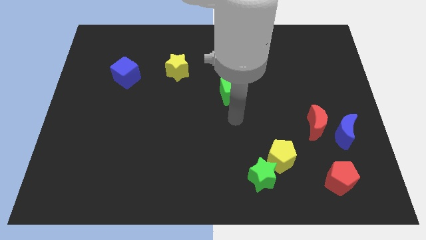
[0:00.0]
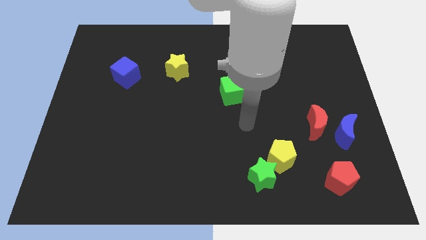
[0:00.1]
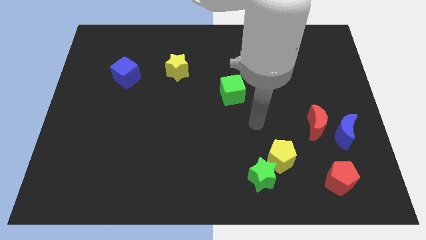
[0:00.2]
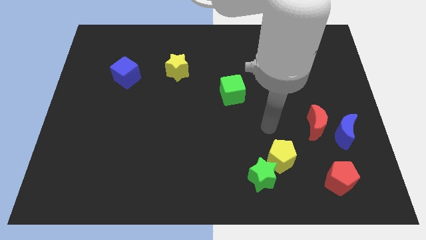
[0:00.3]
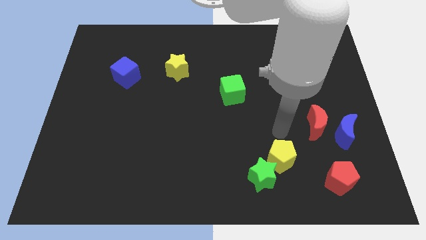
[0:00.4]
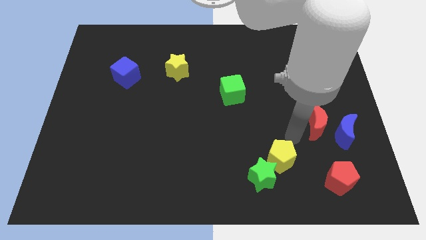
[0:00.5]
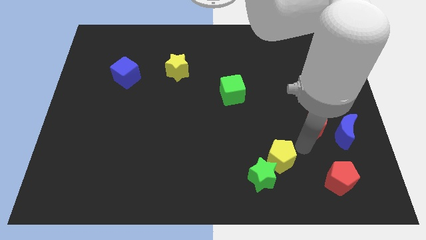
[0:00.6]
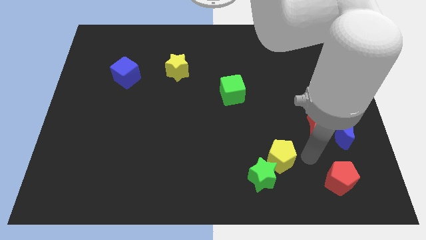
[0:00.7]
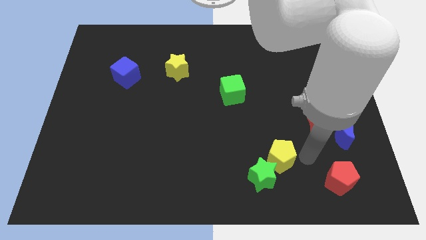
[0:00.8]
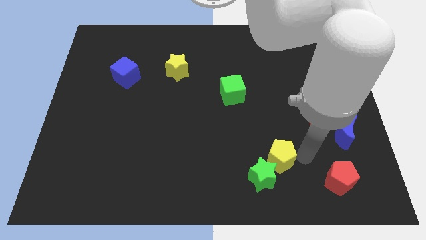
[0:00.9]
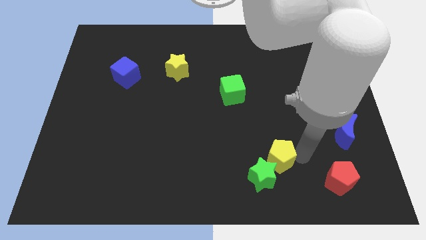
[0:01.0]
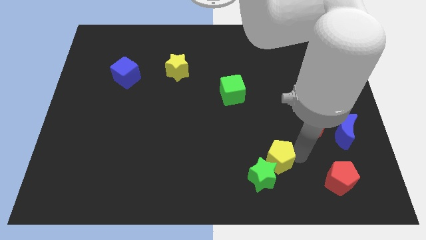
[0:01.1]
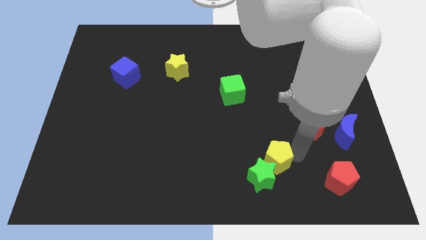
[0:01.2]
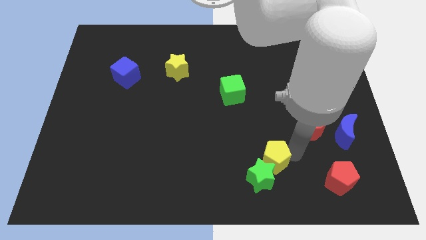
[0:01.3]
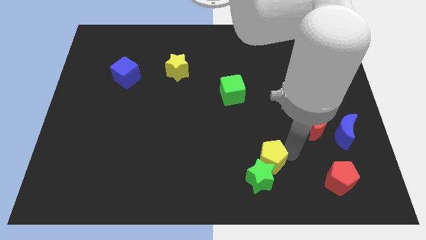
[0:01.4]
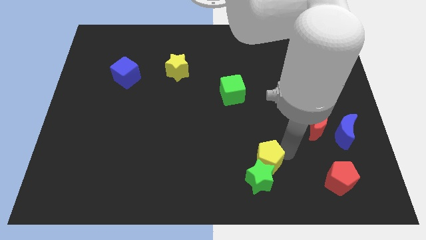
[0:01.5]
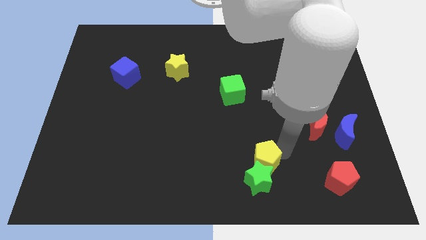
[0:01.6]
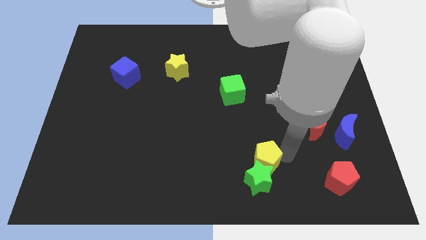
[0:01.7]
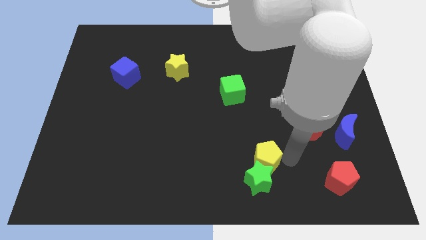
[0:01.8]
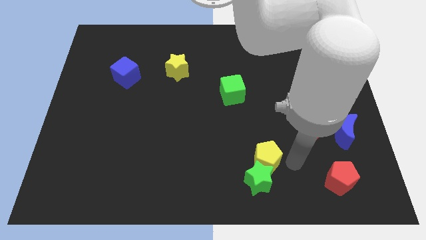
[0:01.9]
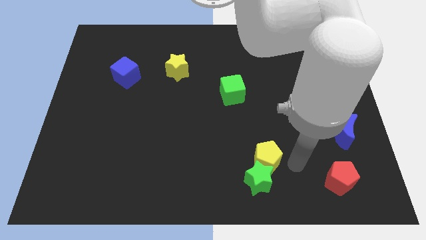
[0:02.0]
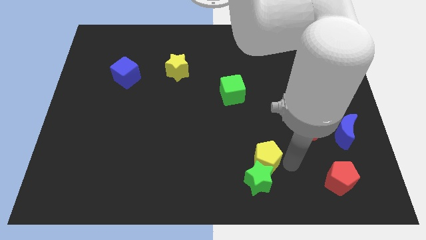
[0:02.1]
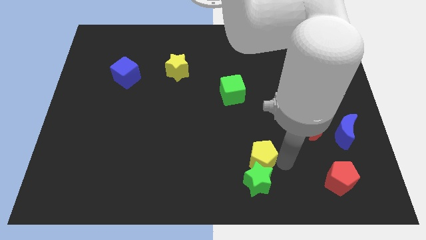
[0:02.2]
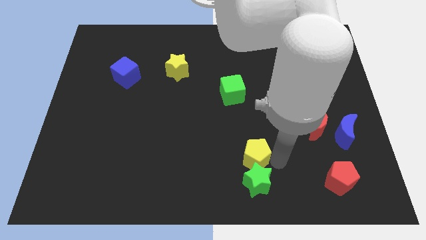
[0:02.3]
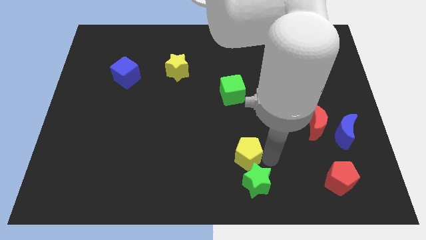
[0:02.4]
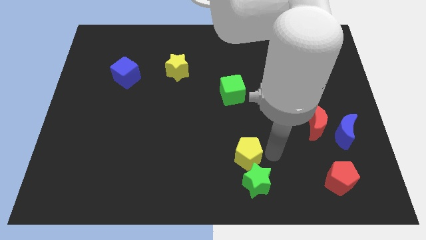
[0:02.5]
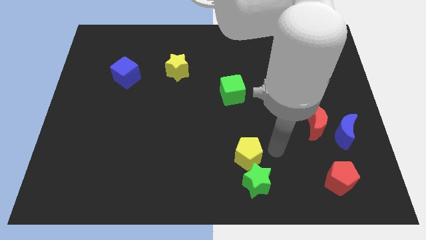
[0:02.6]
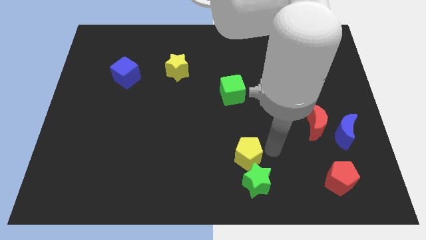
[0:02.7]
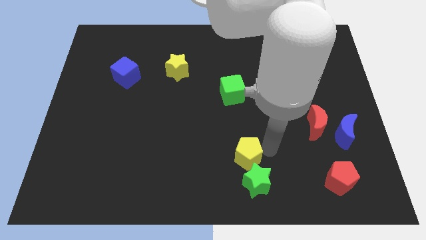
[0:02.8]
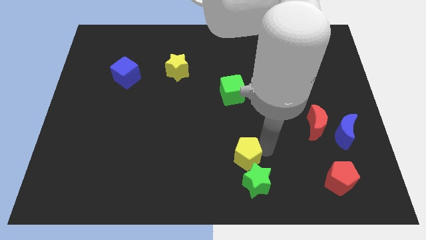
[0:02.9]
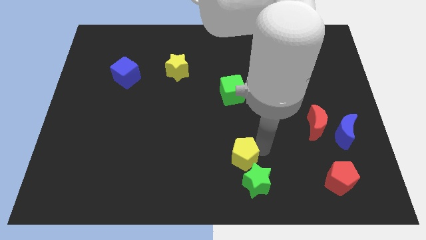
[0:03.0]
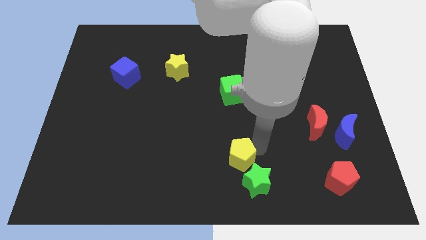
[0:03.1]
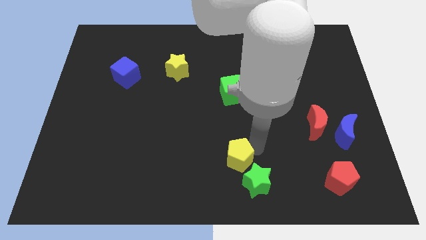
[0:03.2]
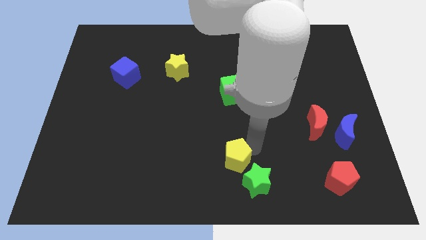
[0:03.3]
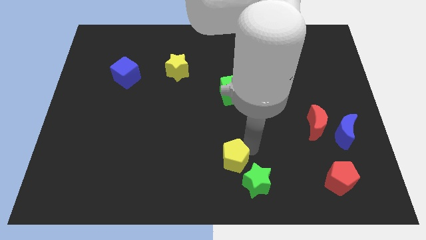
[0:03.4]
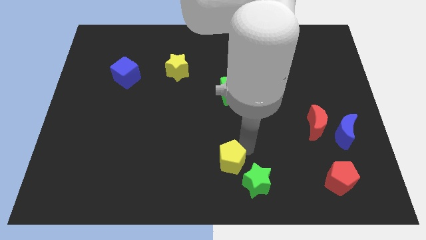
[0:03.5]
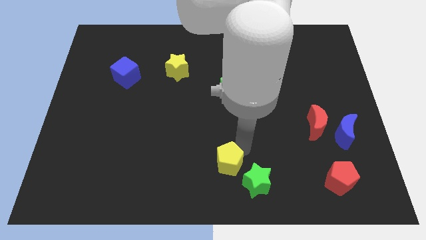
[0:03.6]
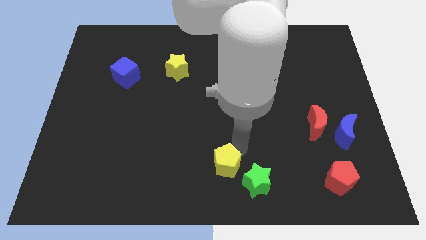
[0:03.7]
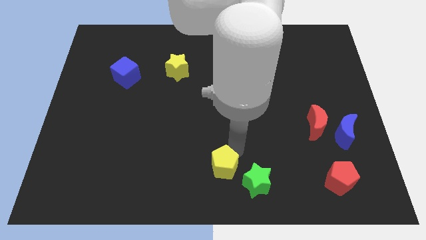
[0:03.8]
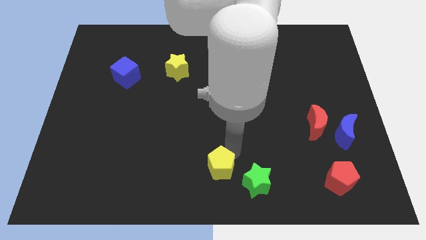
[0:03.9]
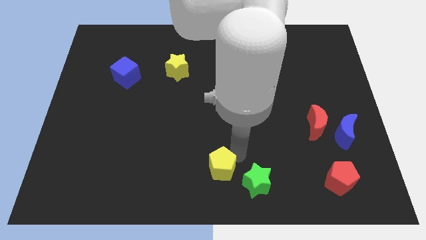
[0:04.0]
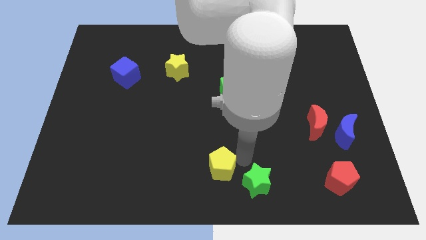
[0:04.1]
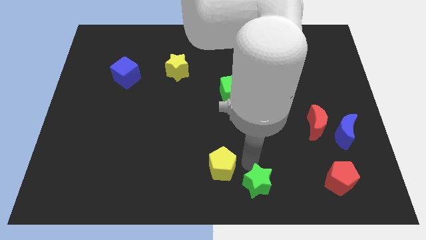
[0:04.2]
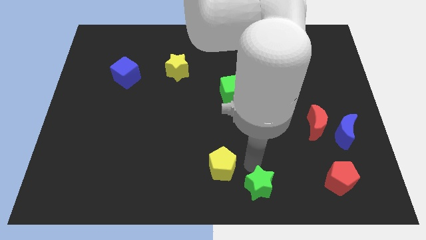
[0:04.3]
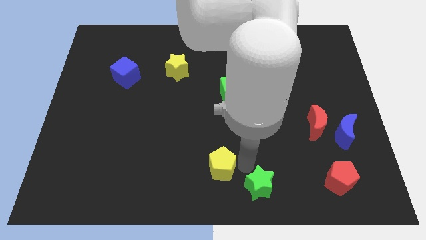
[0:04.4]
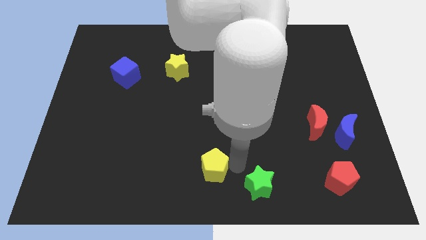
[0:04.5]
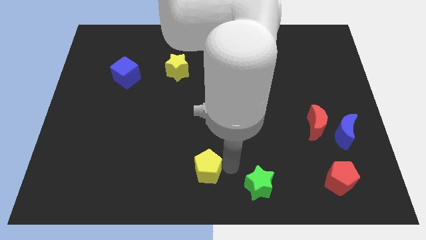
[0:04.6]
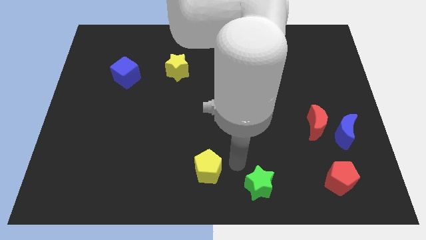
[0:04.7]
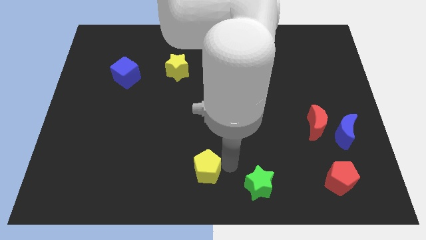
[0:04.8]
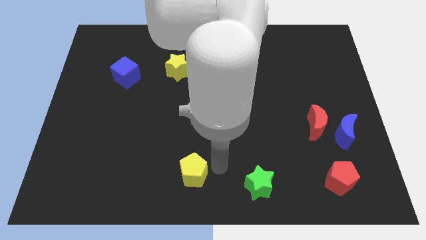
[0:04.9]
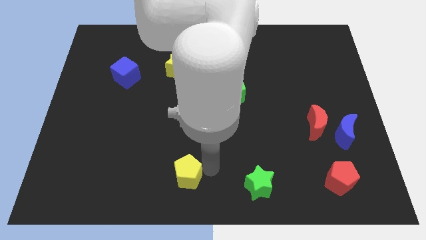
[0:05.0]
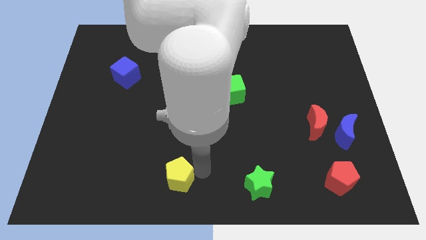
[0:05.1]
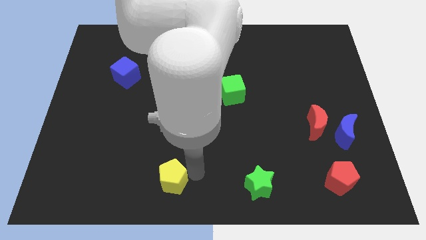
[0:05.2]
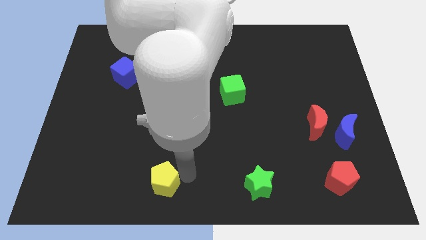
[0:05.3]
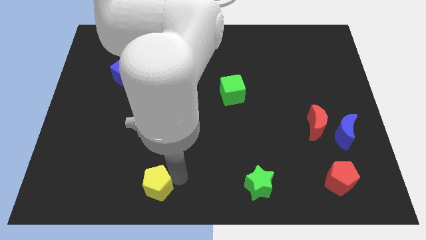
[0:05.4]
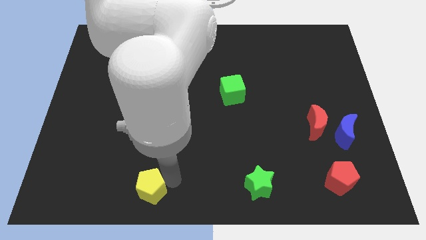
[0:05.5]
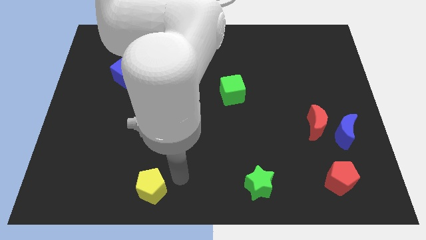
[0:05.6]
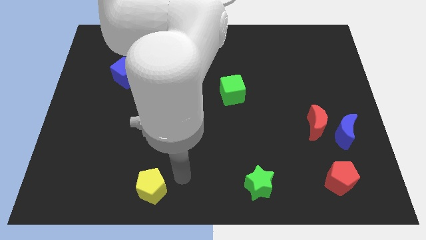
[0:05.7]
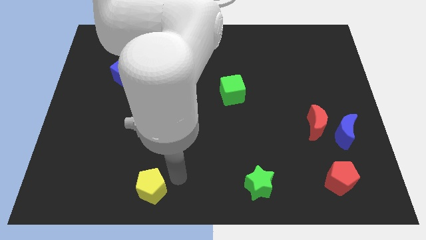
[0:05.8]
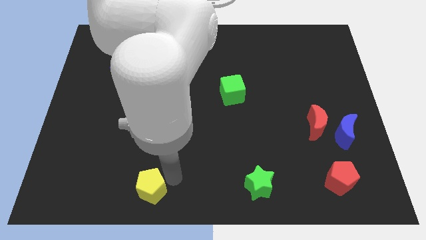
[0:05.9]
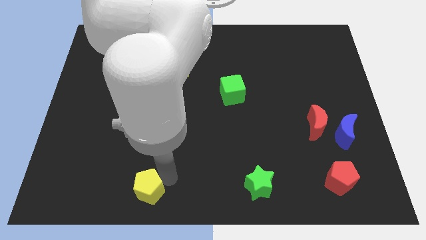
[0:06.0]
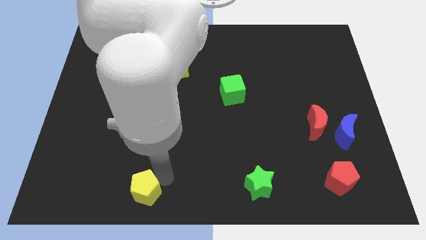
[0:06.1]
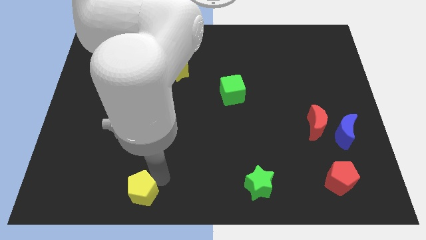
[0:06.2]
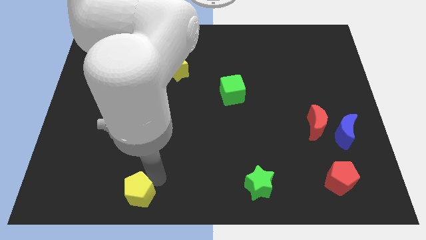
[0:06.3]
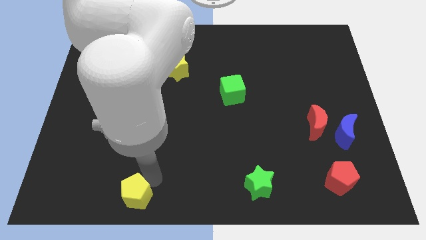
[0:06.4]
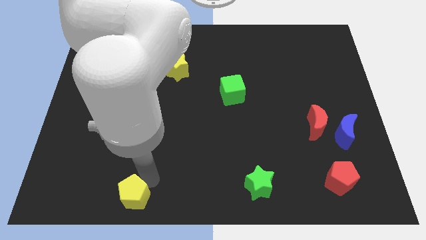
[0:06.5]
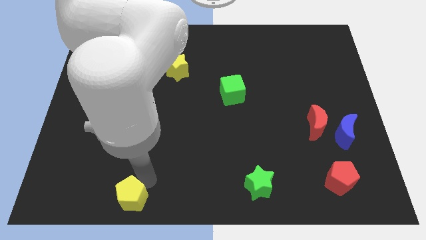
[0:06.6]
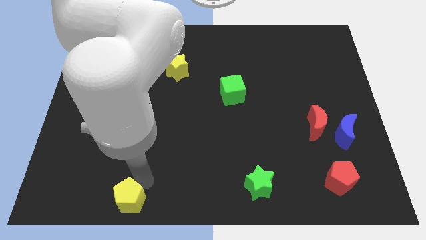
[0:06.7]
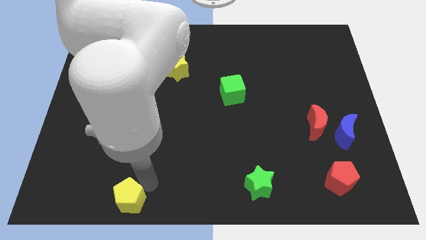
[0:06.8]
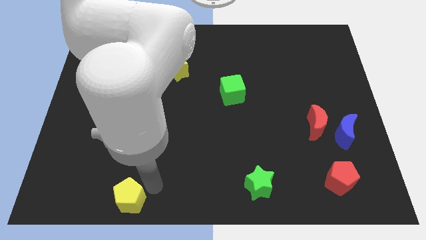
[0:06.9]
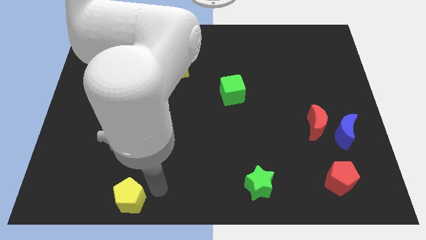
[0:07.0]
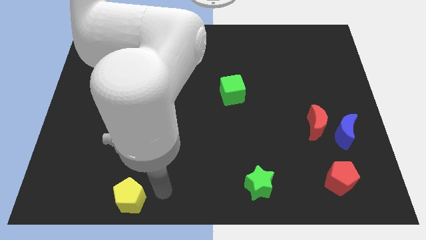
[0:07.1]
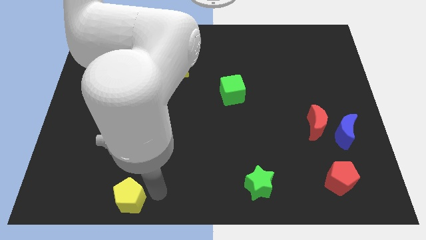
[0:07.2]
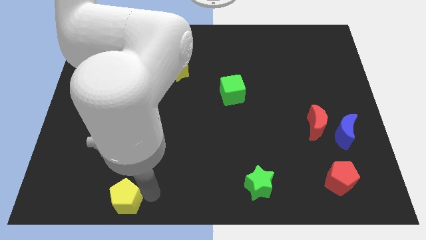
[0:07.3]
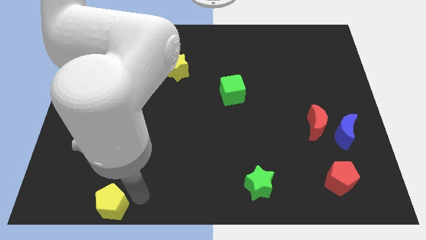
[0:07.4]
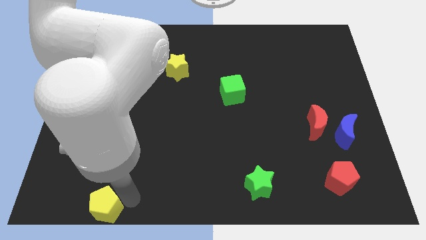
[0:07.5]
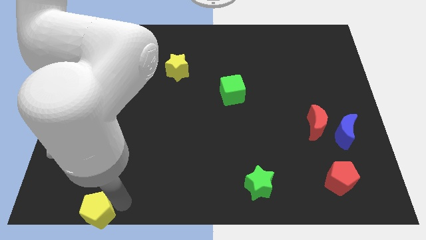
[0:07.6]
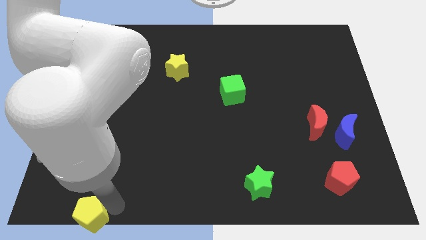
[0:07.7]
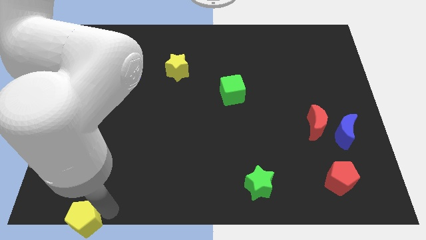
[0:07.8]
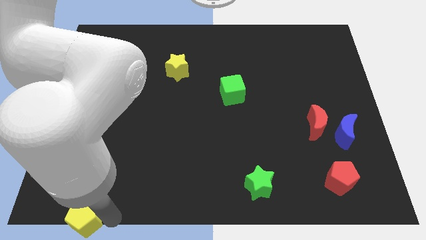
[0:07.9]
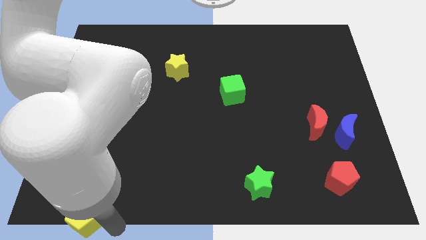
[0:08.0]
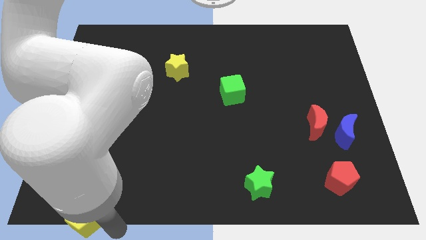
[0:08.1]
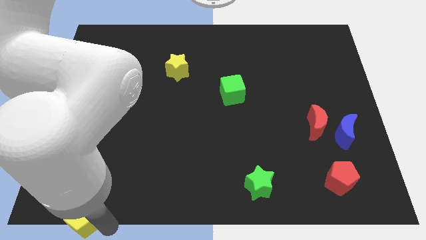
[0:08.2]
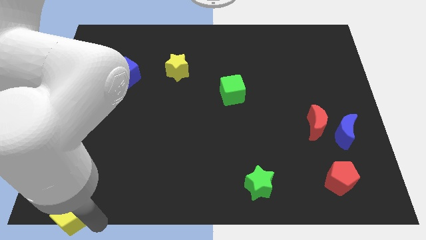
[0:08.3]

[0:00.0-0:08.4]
push the yellow pentagon to the bottom left
